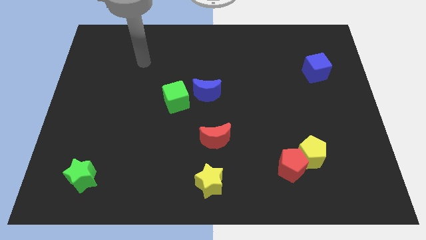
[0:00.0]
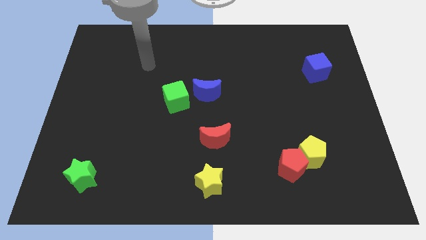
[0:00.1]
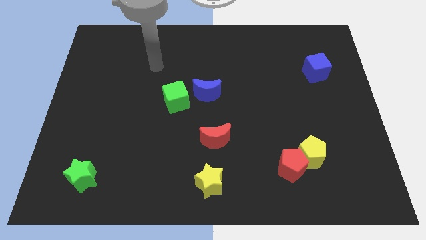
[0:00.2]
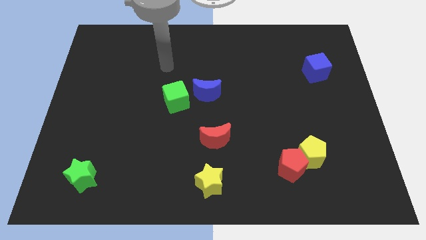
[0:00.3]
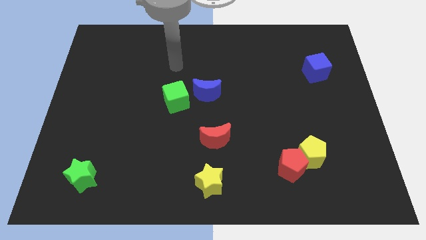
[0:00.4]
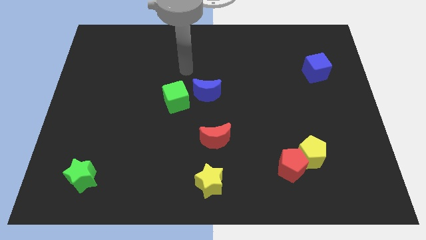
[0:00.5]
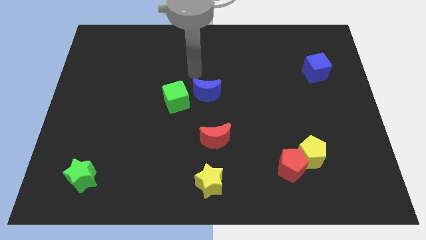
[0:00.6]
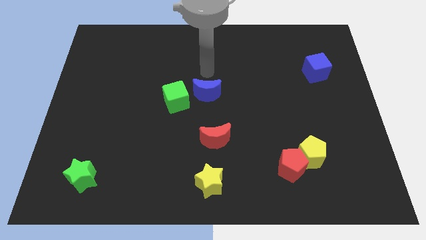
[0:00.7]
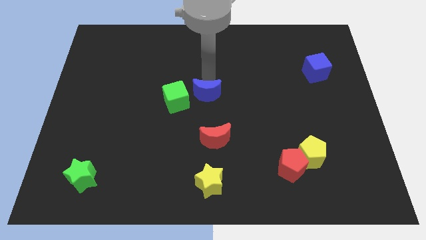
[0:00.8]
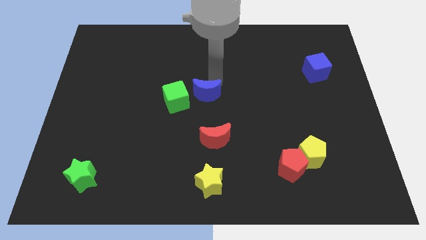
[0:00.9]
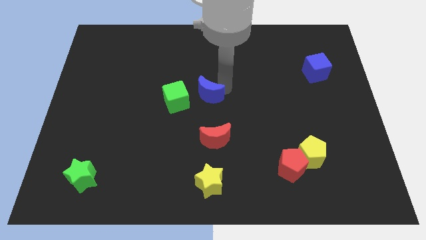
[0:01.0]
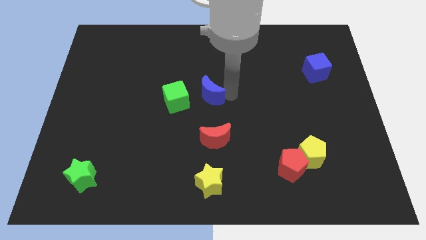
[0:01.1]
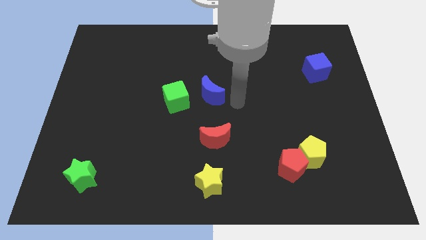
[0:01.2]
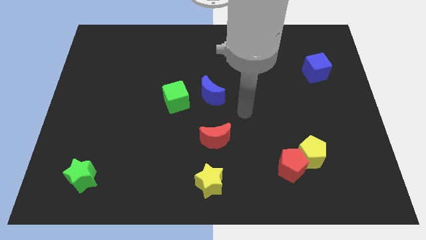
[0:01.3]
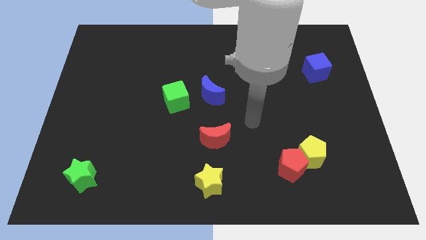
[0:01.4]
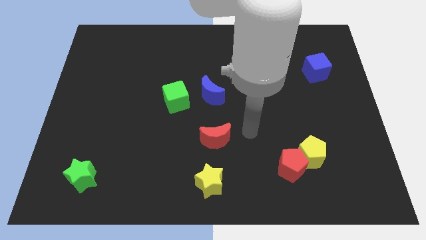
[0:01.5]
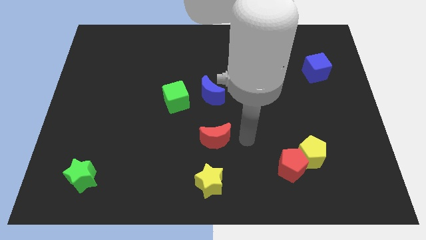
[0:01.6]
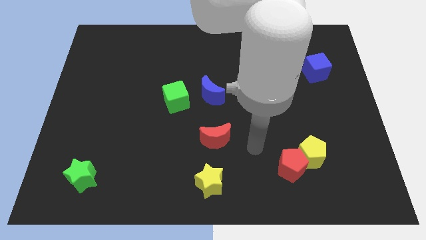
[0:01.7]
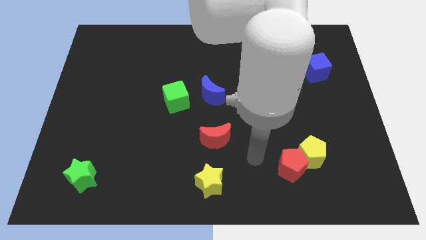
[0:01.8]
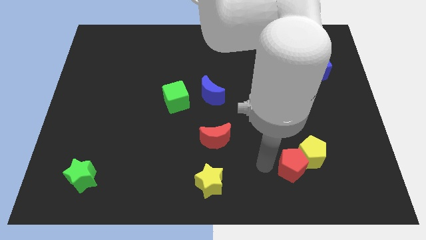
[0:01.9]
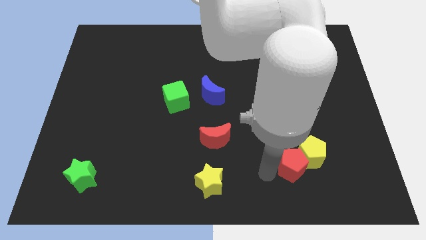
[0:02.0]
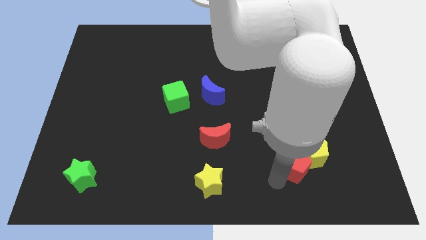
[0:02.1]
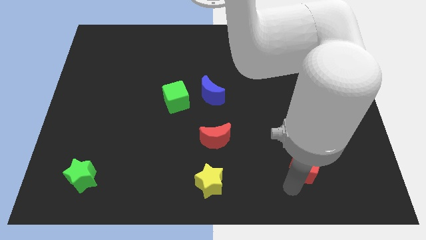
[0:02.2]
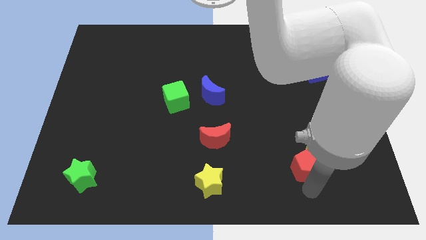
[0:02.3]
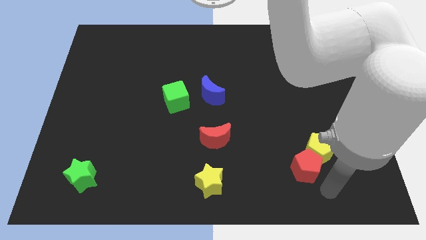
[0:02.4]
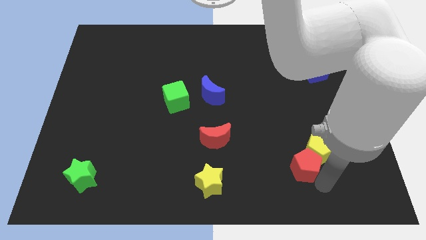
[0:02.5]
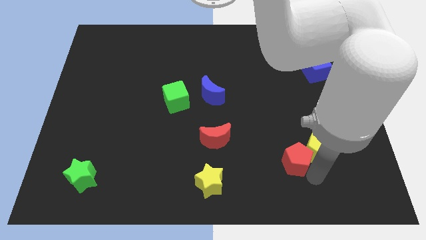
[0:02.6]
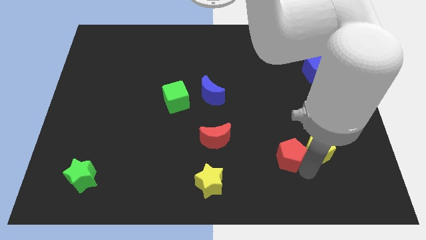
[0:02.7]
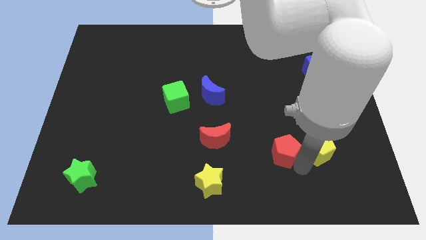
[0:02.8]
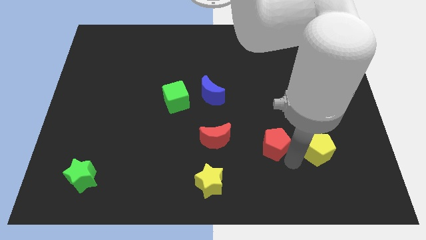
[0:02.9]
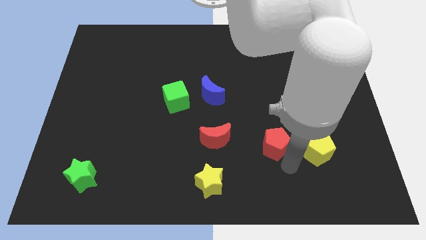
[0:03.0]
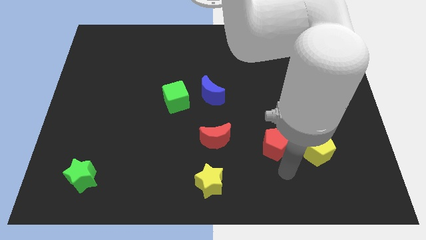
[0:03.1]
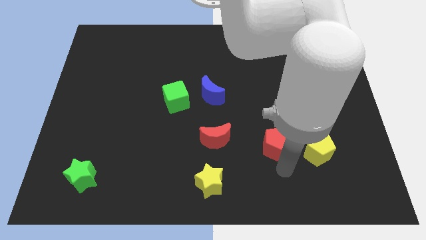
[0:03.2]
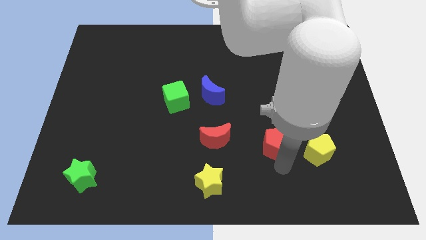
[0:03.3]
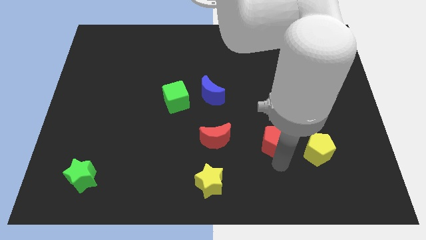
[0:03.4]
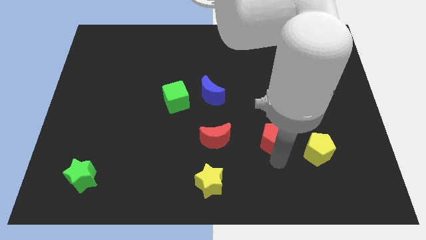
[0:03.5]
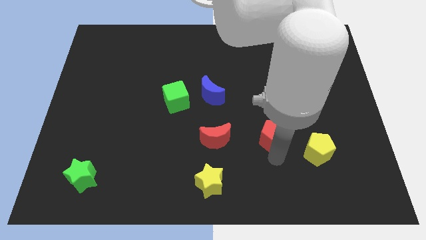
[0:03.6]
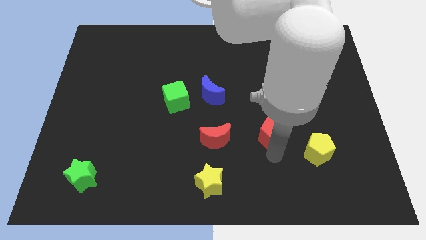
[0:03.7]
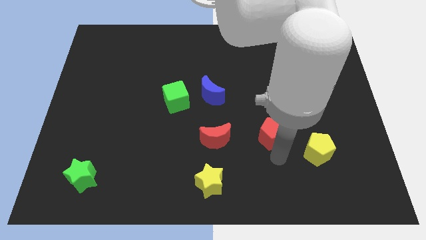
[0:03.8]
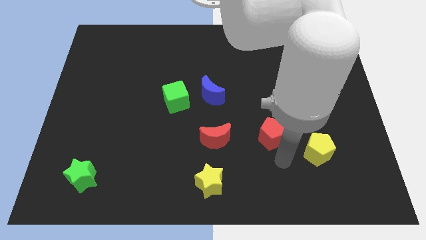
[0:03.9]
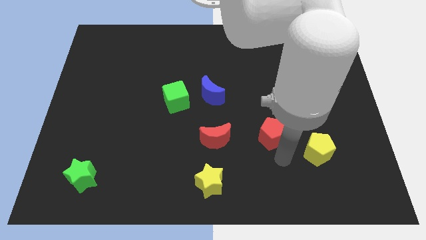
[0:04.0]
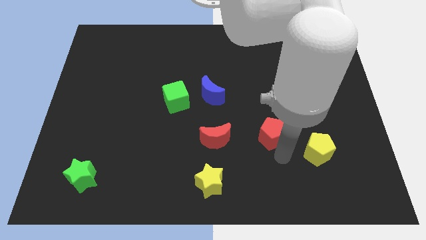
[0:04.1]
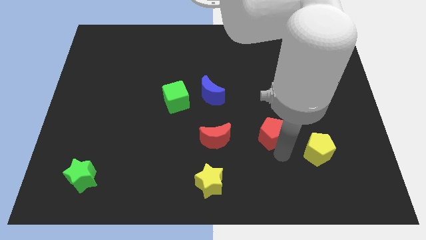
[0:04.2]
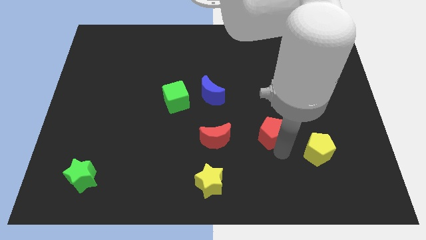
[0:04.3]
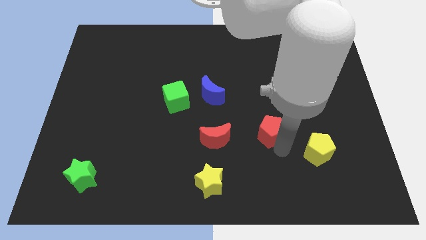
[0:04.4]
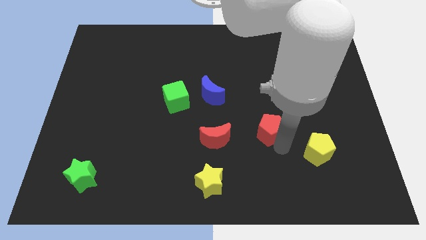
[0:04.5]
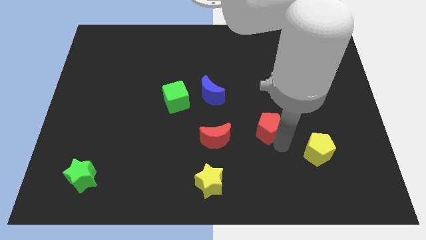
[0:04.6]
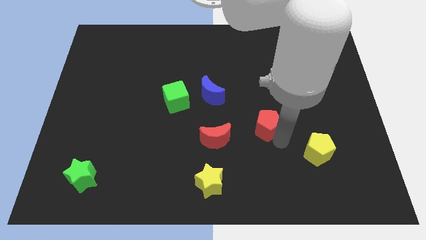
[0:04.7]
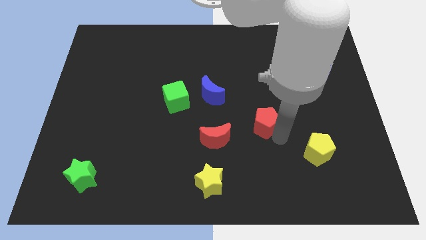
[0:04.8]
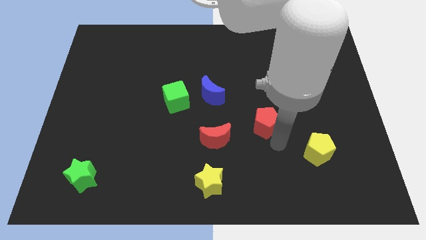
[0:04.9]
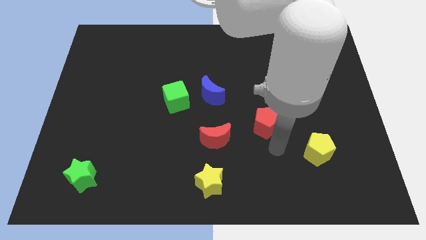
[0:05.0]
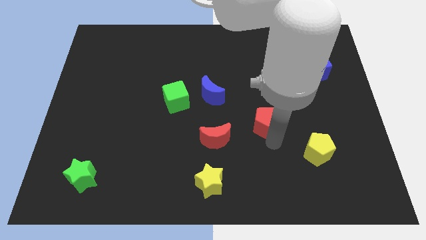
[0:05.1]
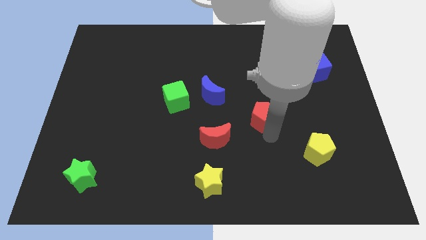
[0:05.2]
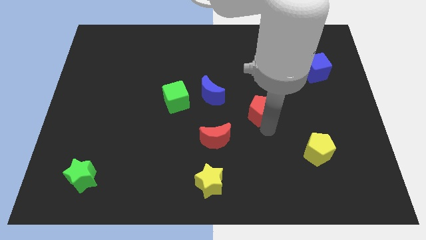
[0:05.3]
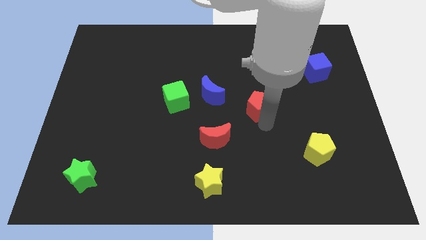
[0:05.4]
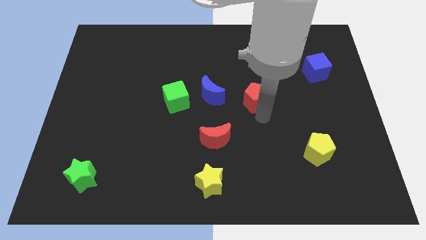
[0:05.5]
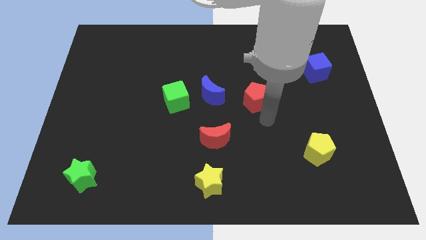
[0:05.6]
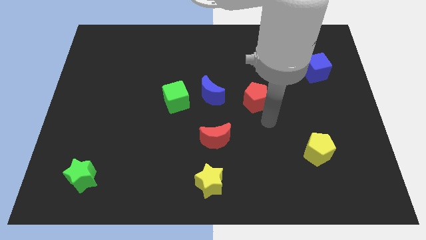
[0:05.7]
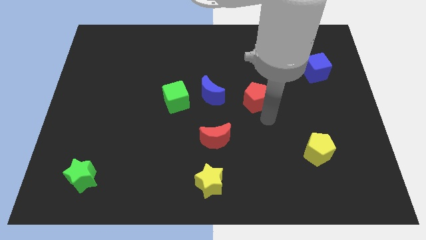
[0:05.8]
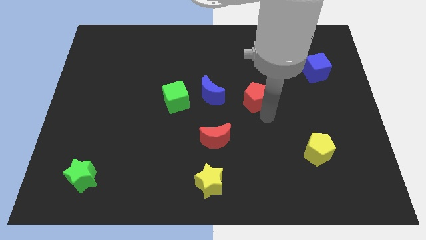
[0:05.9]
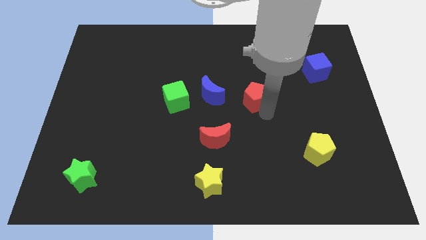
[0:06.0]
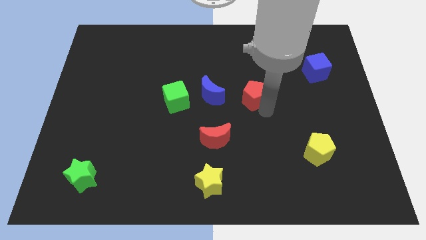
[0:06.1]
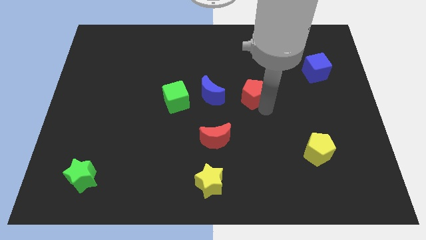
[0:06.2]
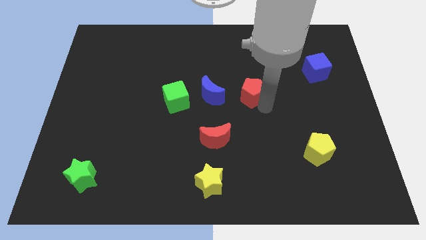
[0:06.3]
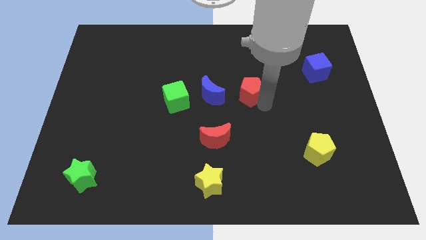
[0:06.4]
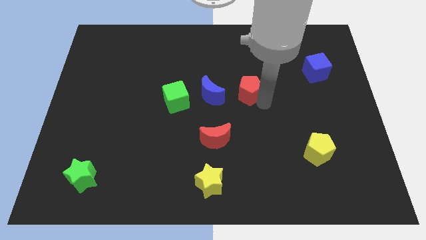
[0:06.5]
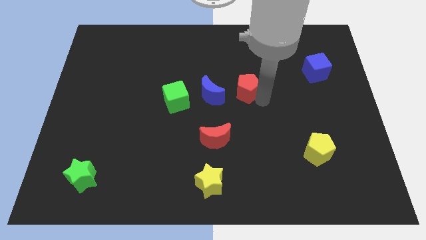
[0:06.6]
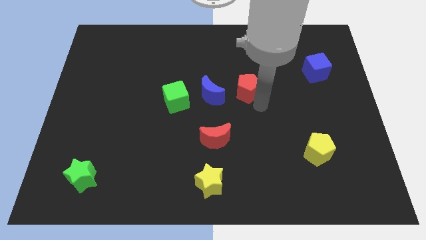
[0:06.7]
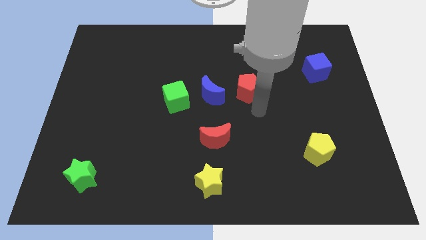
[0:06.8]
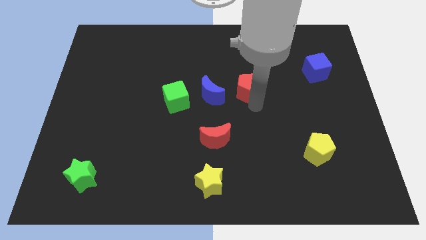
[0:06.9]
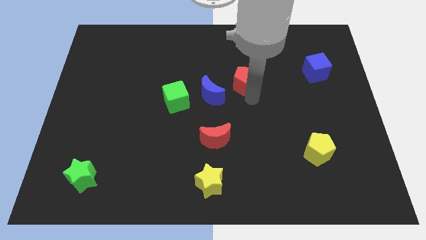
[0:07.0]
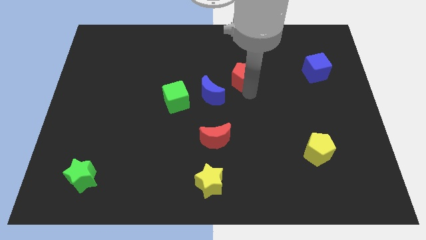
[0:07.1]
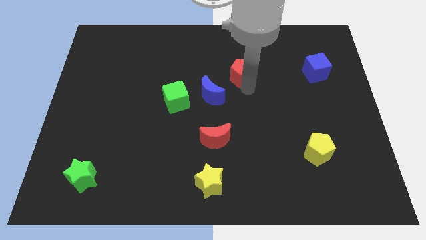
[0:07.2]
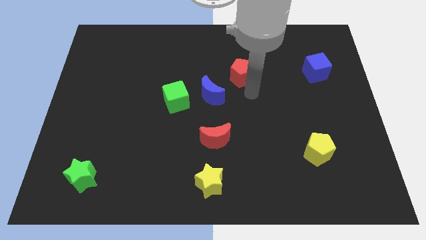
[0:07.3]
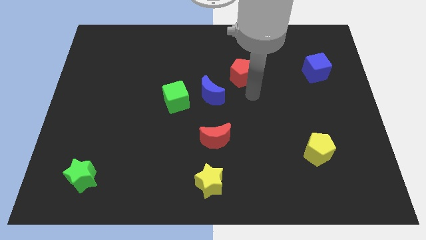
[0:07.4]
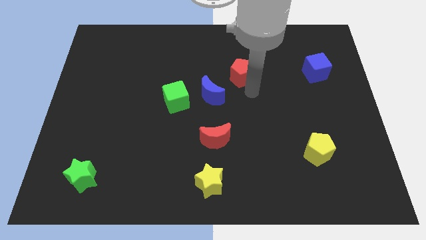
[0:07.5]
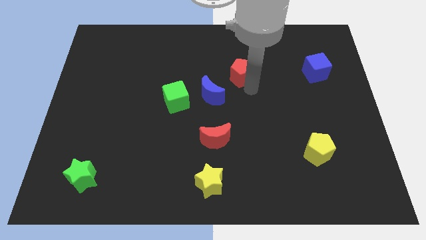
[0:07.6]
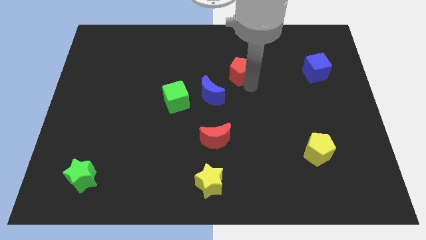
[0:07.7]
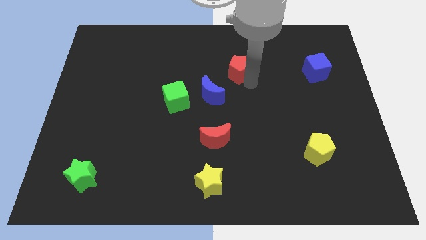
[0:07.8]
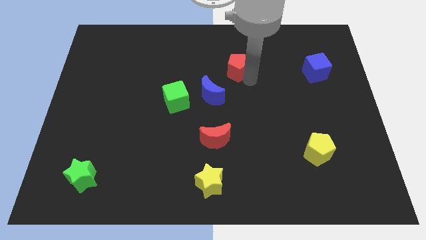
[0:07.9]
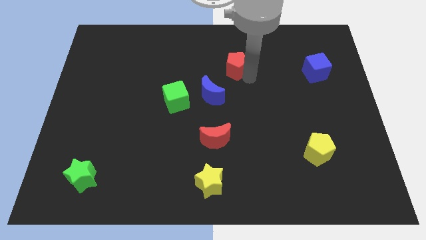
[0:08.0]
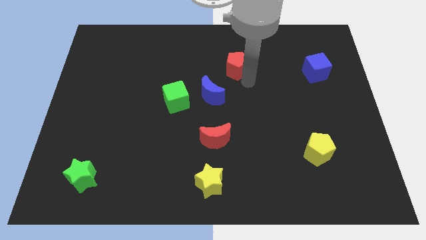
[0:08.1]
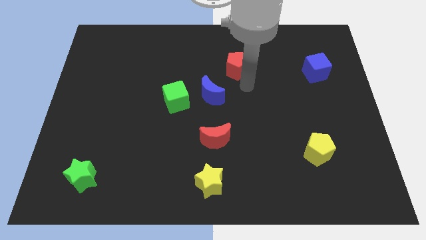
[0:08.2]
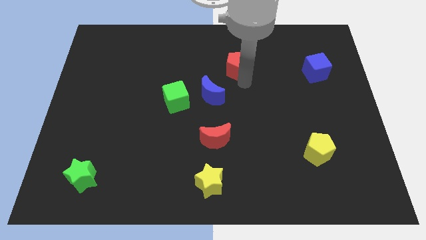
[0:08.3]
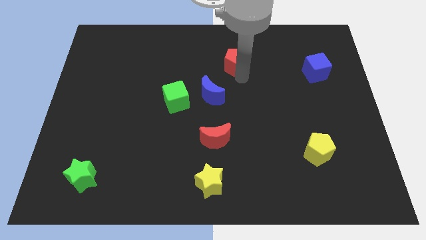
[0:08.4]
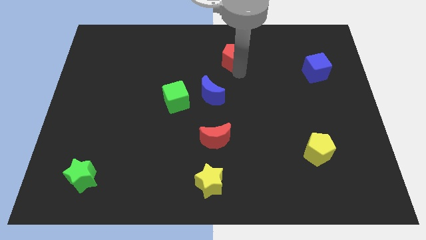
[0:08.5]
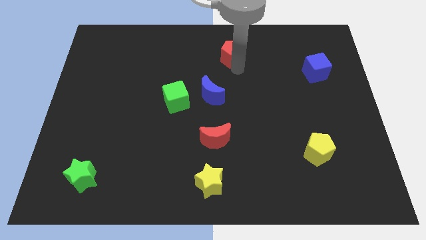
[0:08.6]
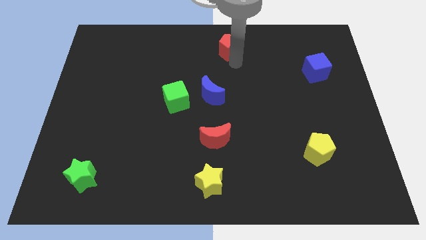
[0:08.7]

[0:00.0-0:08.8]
push the red pentagon to the top
